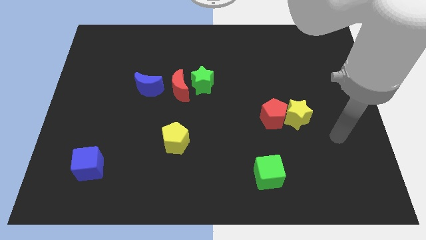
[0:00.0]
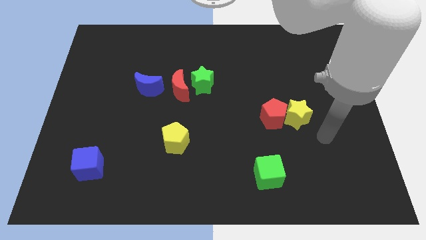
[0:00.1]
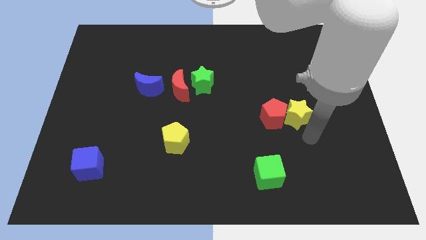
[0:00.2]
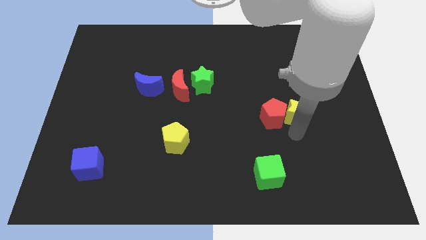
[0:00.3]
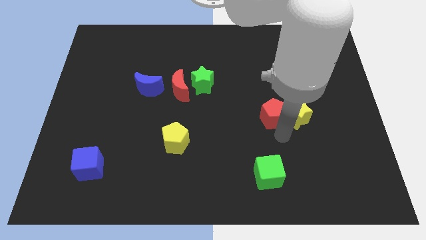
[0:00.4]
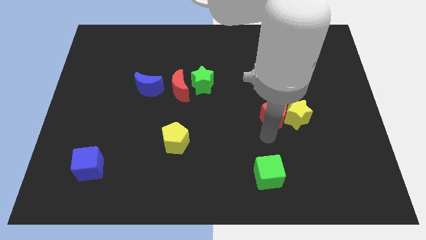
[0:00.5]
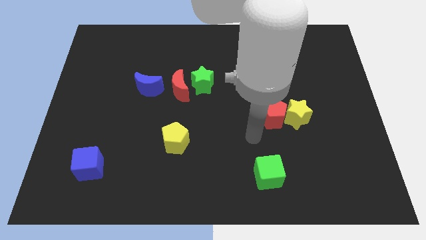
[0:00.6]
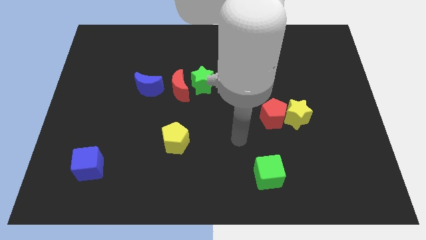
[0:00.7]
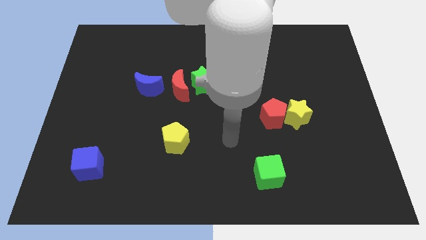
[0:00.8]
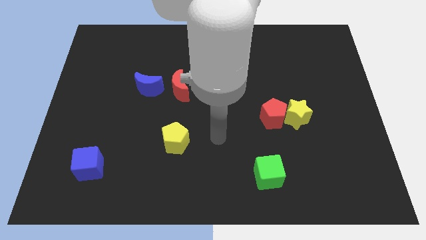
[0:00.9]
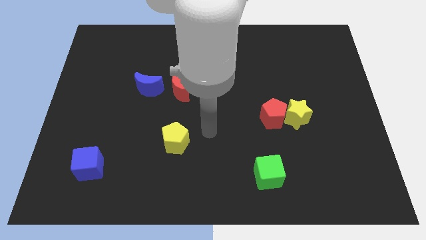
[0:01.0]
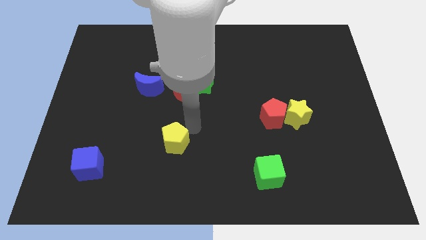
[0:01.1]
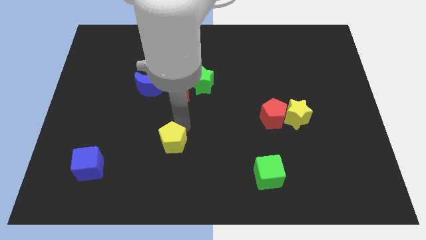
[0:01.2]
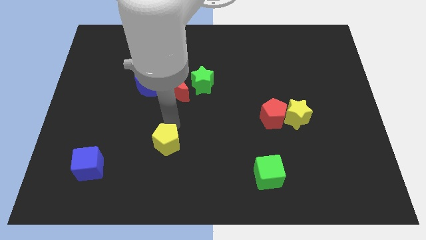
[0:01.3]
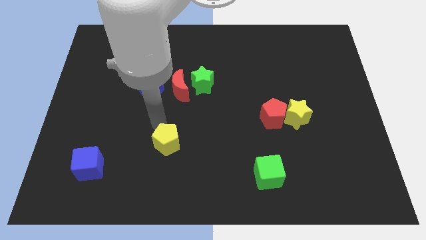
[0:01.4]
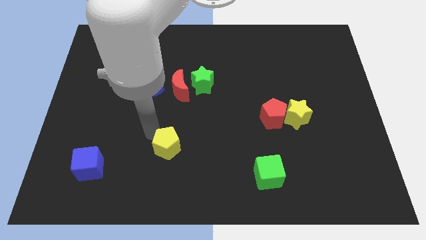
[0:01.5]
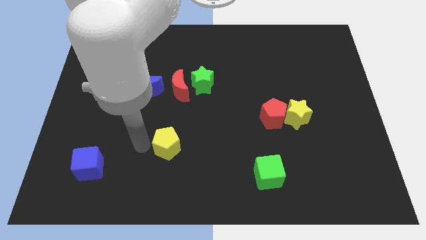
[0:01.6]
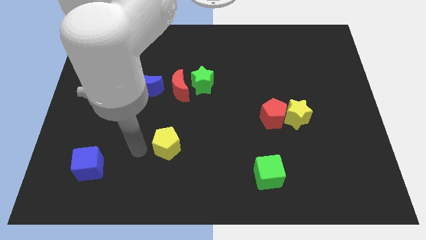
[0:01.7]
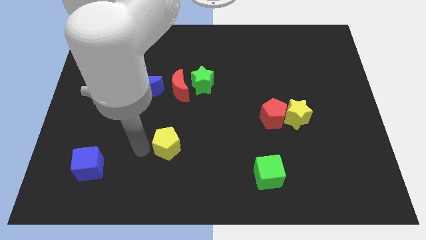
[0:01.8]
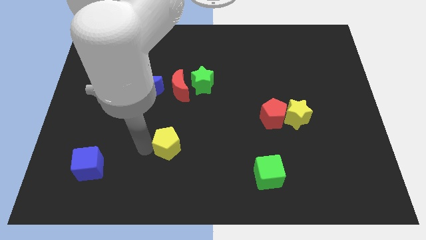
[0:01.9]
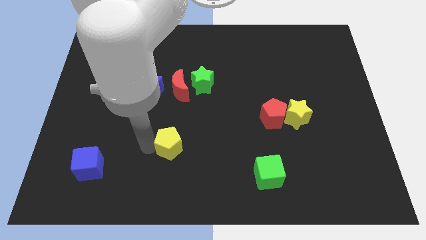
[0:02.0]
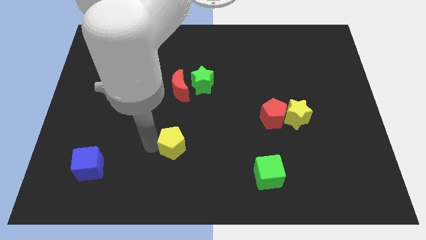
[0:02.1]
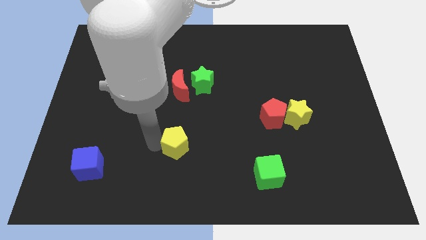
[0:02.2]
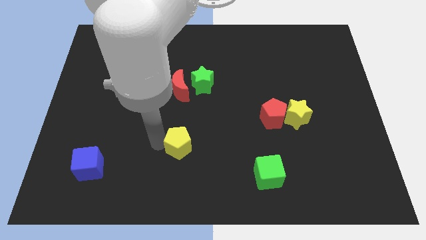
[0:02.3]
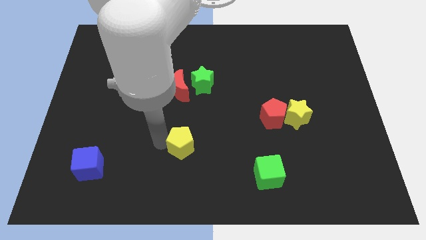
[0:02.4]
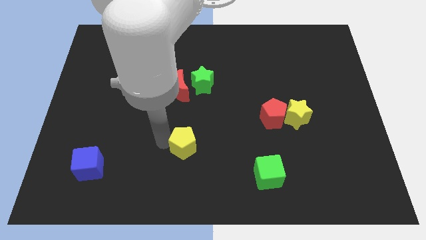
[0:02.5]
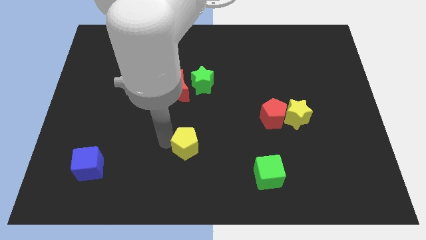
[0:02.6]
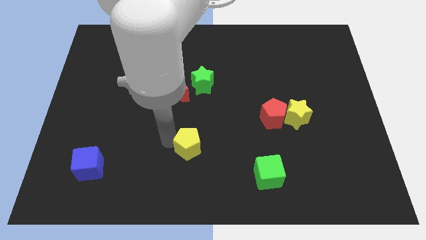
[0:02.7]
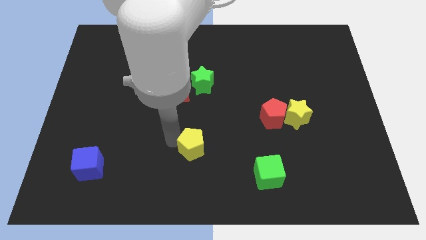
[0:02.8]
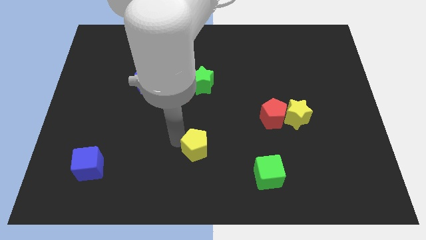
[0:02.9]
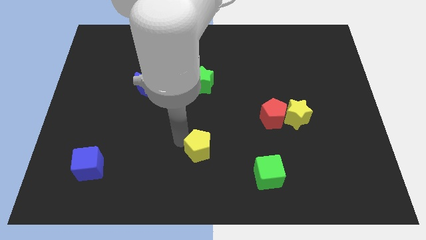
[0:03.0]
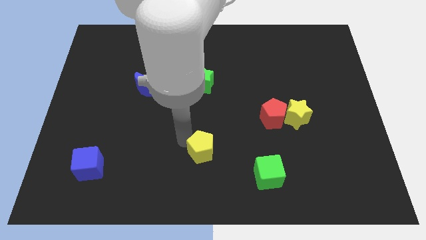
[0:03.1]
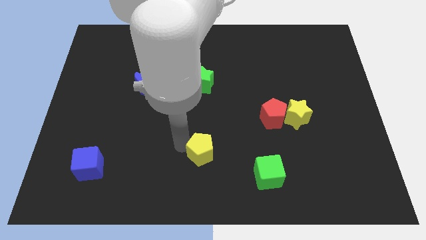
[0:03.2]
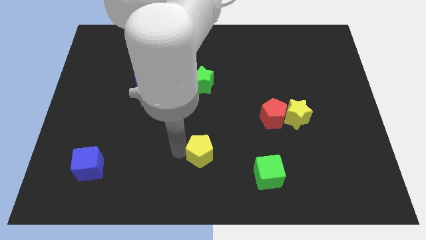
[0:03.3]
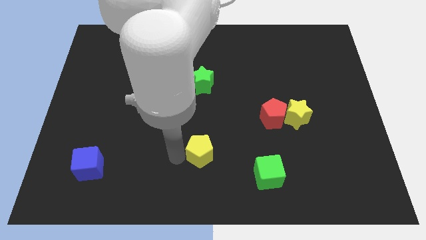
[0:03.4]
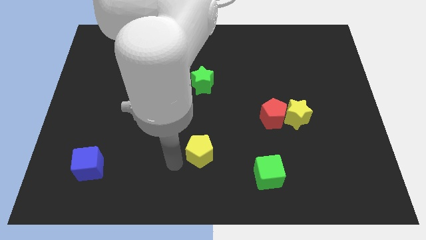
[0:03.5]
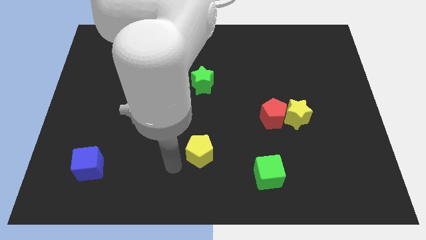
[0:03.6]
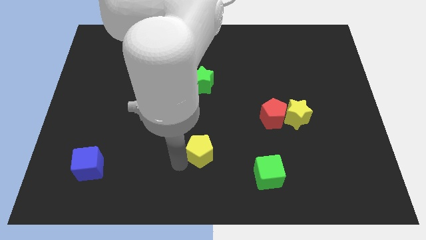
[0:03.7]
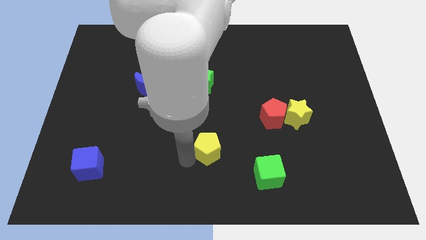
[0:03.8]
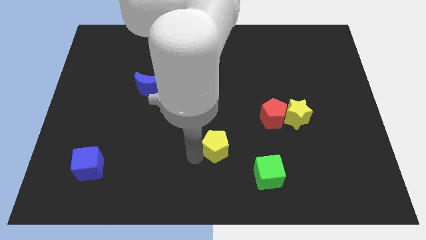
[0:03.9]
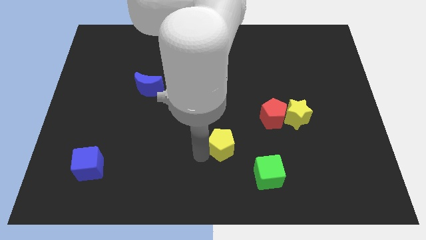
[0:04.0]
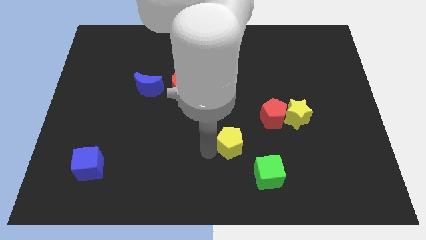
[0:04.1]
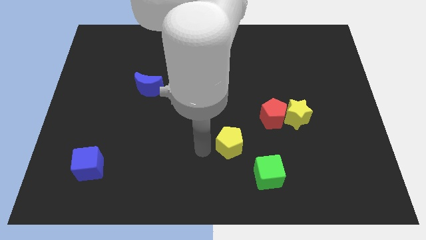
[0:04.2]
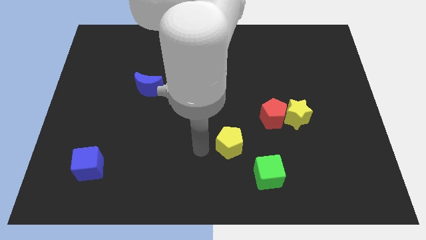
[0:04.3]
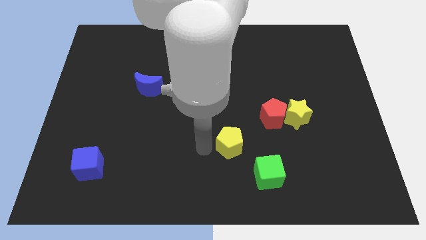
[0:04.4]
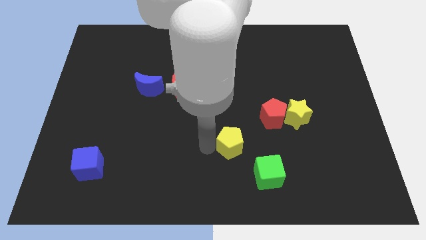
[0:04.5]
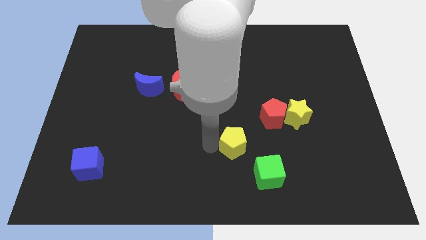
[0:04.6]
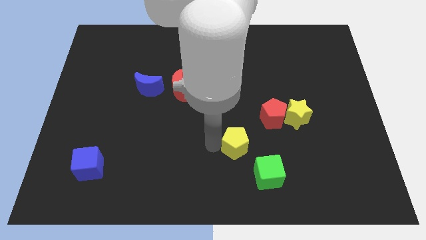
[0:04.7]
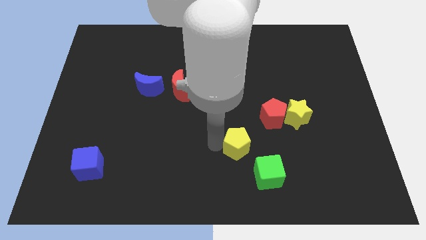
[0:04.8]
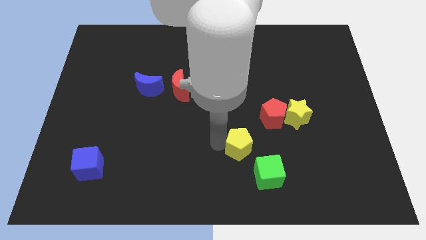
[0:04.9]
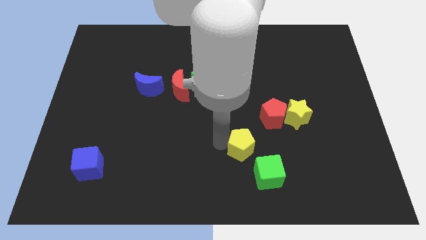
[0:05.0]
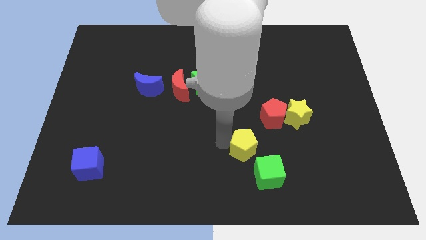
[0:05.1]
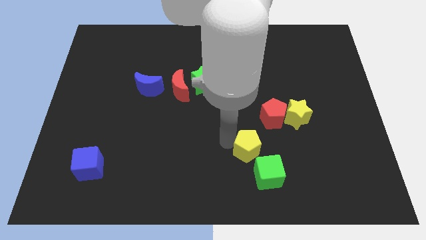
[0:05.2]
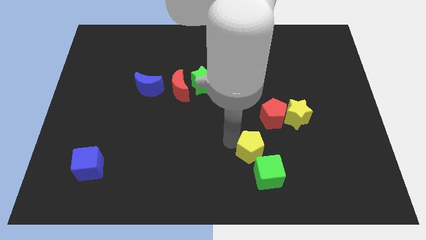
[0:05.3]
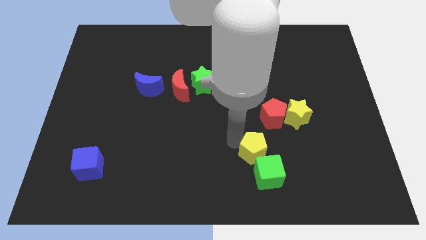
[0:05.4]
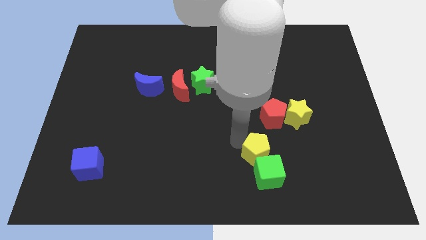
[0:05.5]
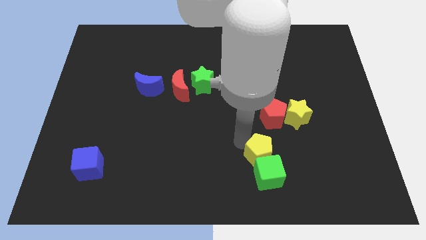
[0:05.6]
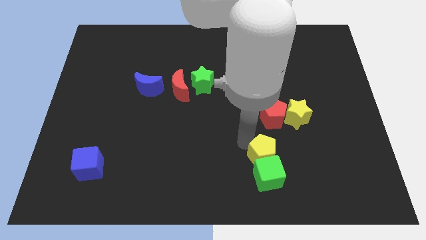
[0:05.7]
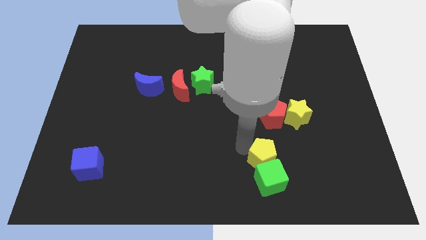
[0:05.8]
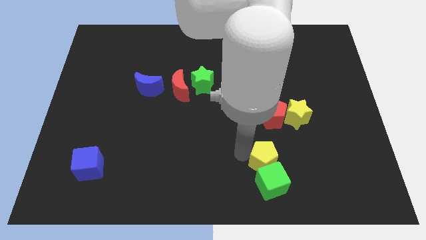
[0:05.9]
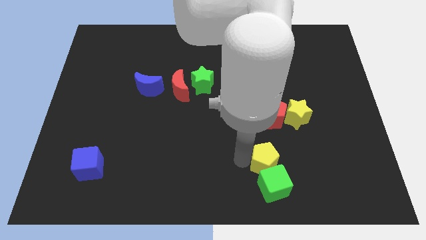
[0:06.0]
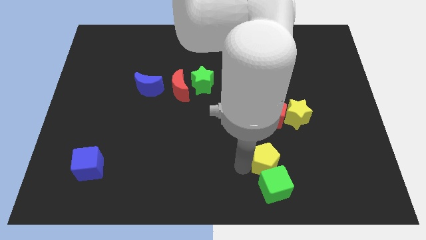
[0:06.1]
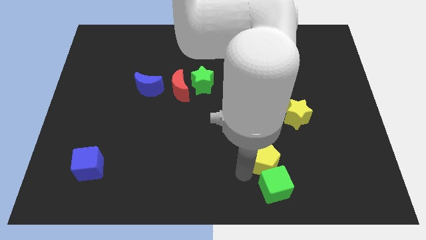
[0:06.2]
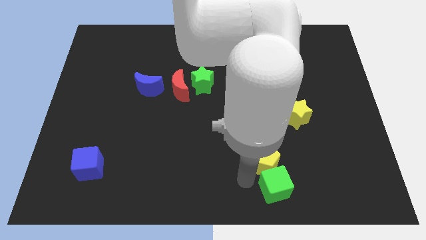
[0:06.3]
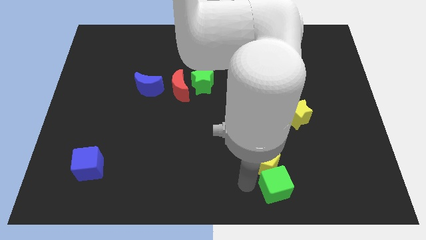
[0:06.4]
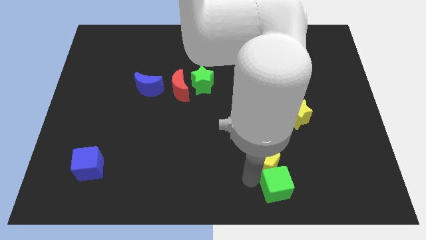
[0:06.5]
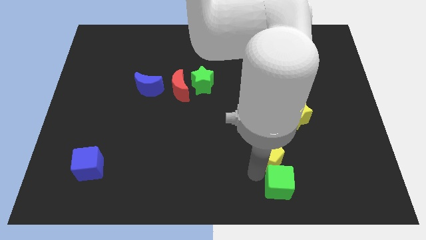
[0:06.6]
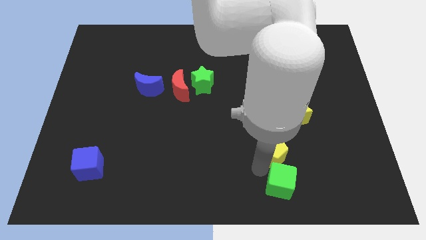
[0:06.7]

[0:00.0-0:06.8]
slide the yellow pentagon right

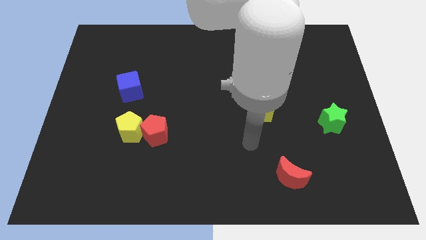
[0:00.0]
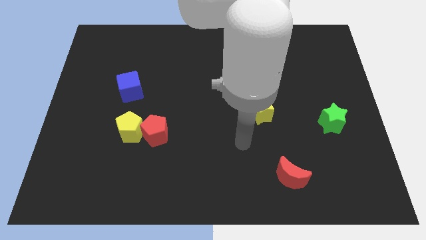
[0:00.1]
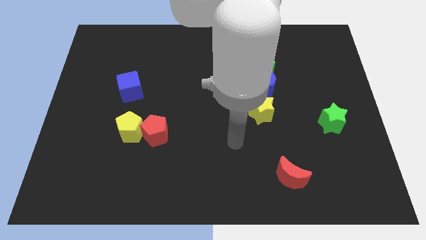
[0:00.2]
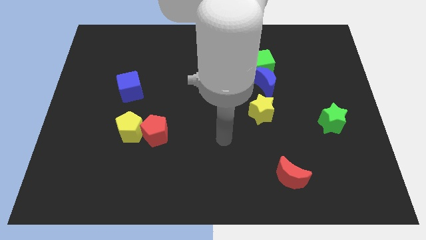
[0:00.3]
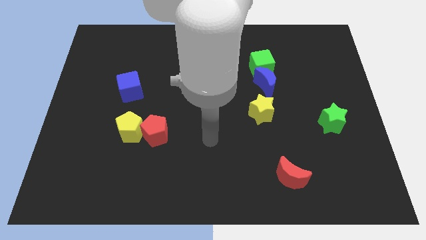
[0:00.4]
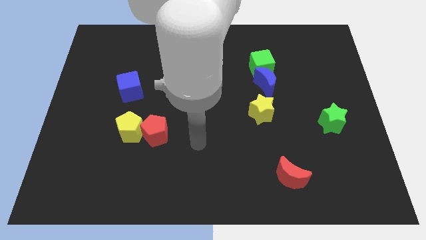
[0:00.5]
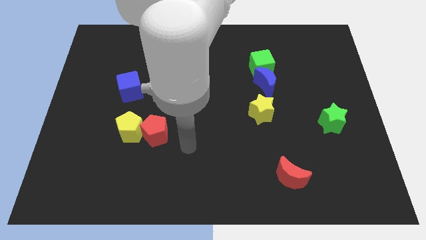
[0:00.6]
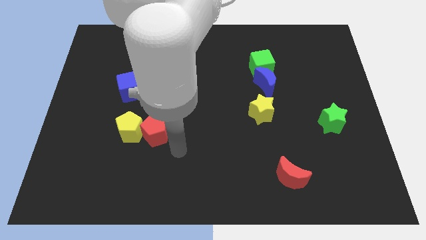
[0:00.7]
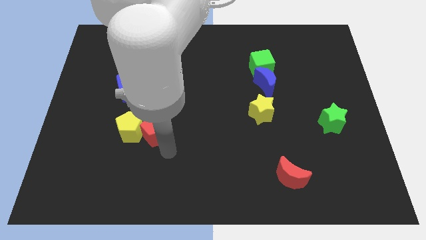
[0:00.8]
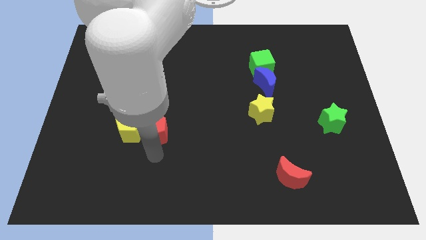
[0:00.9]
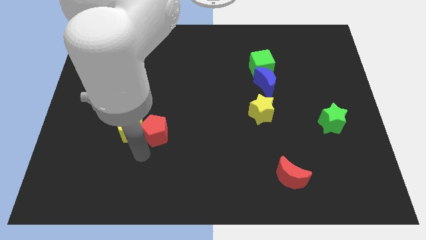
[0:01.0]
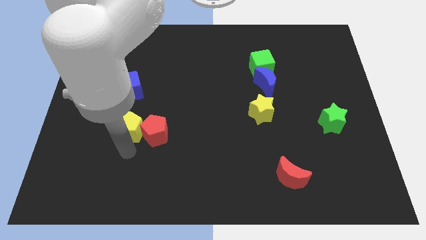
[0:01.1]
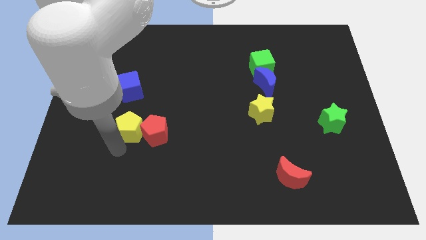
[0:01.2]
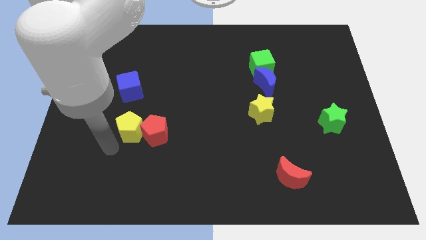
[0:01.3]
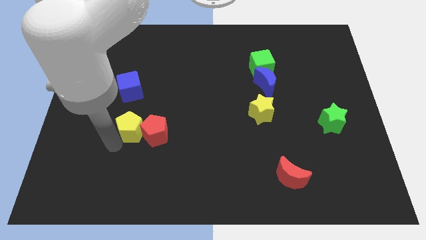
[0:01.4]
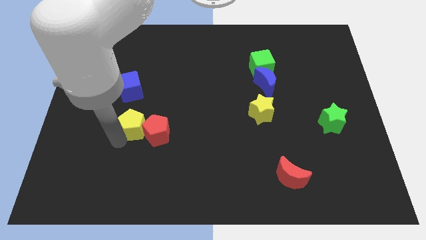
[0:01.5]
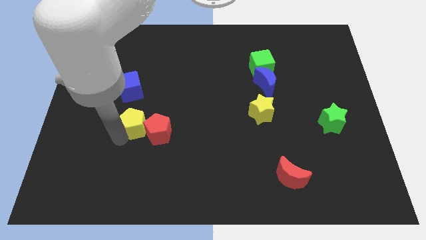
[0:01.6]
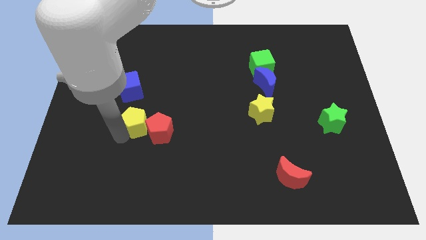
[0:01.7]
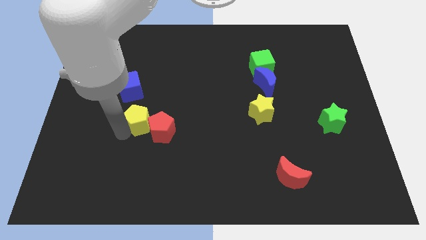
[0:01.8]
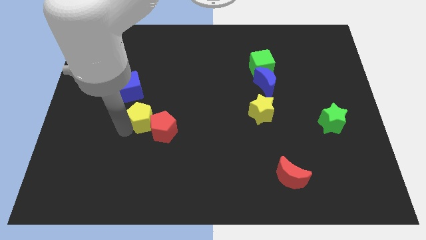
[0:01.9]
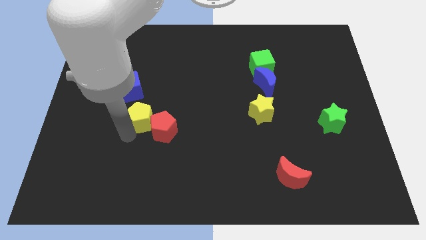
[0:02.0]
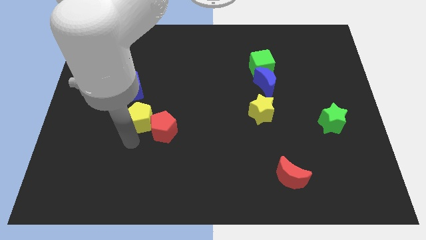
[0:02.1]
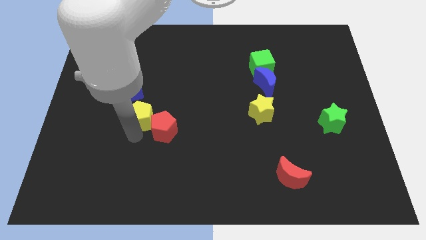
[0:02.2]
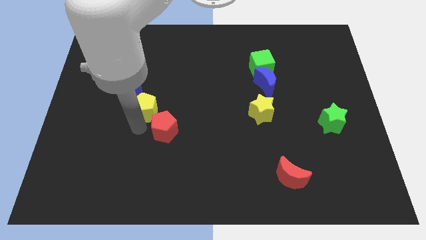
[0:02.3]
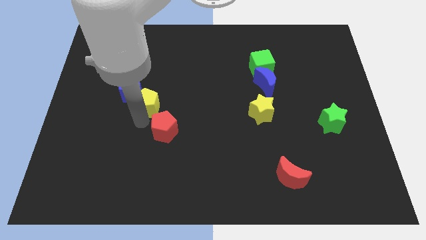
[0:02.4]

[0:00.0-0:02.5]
slightly push the yellow pentagon upwards
